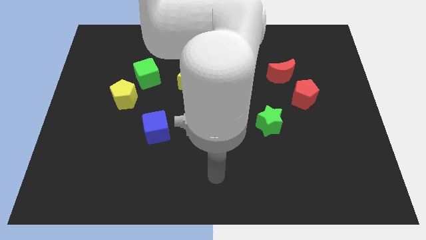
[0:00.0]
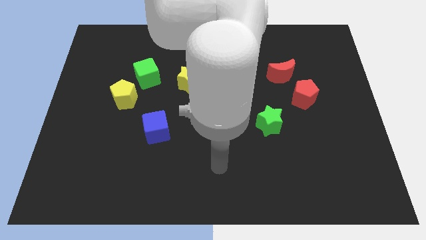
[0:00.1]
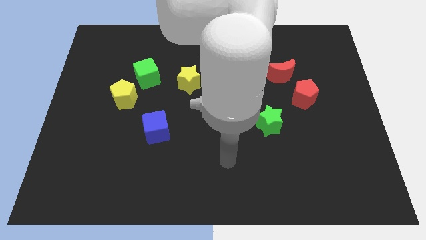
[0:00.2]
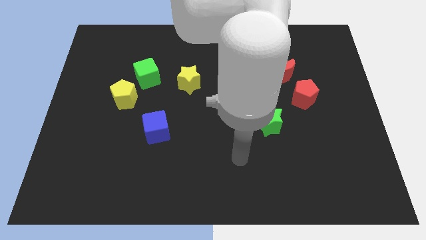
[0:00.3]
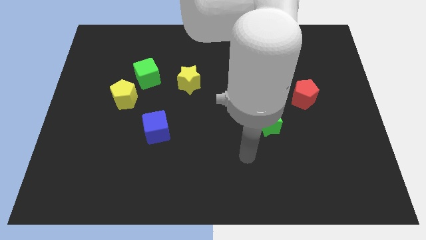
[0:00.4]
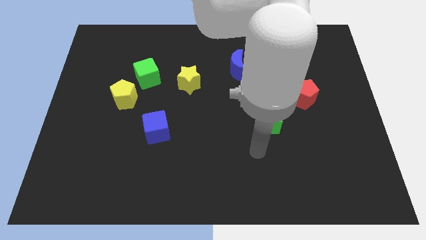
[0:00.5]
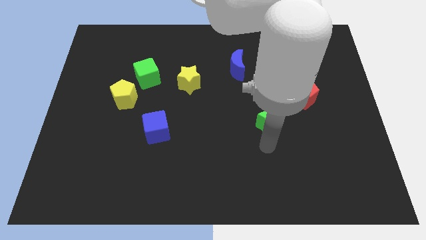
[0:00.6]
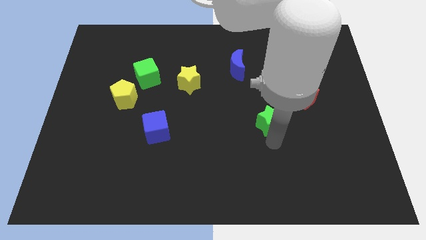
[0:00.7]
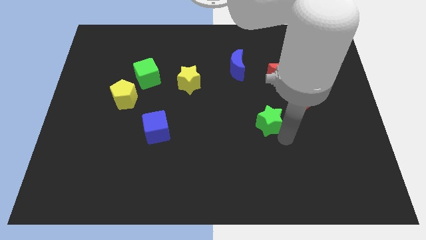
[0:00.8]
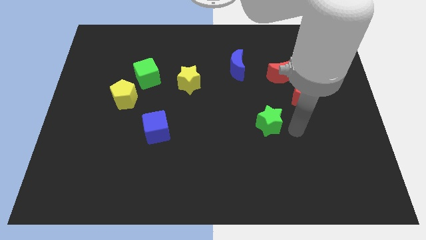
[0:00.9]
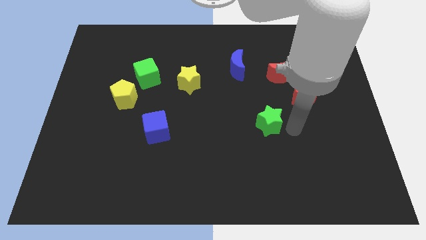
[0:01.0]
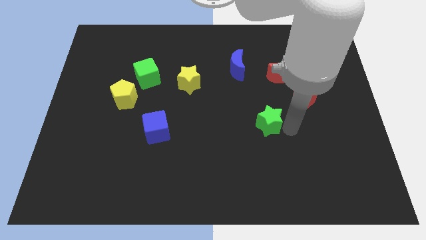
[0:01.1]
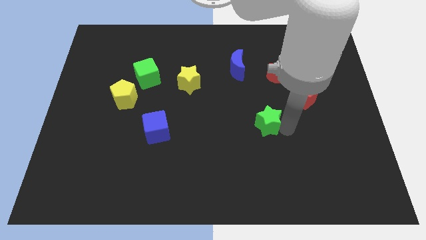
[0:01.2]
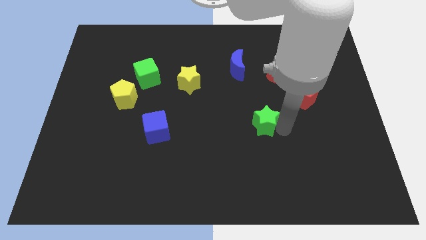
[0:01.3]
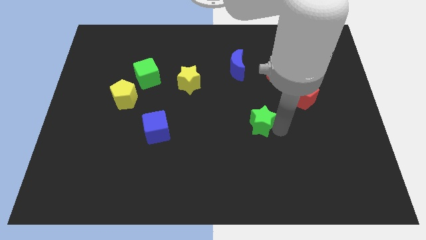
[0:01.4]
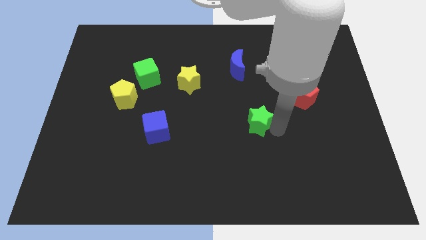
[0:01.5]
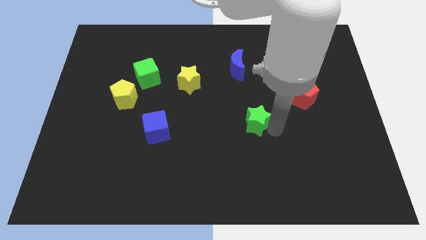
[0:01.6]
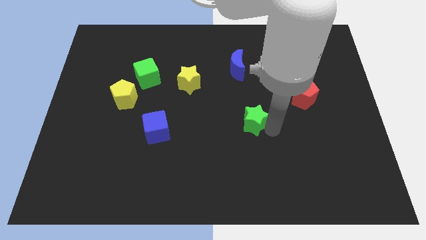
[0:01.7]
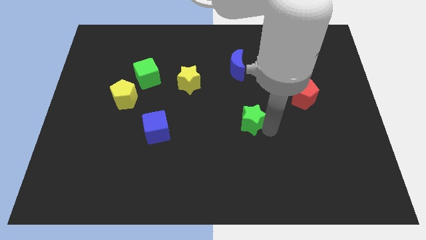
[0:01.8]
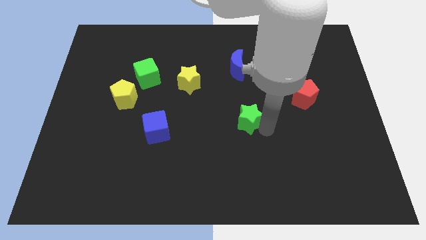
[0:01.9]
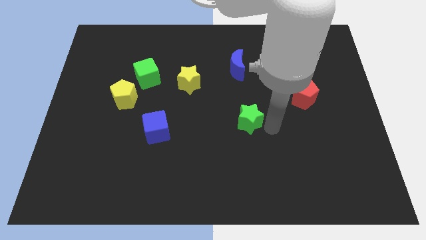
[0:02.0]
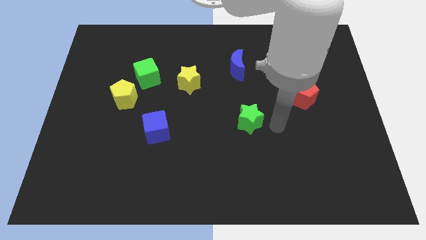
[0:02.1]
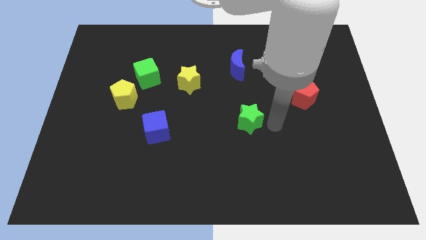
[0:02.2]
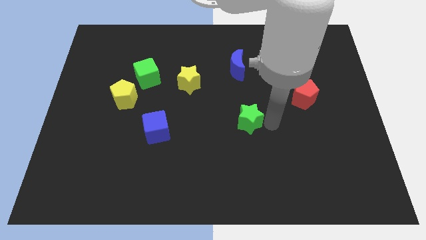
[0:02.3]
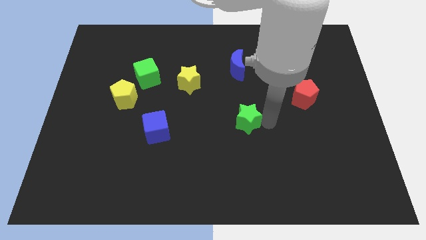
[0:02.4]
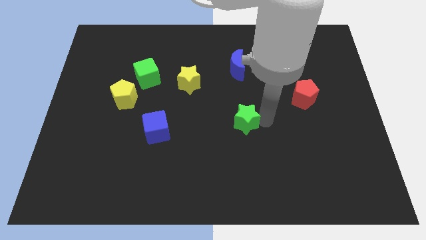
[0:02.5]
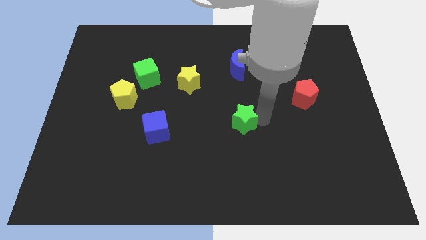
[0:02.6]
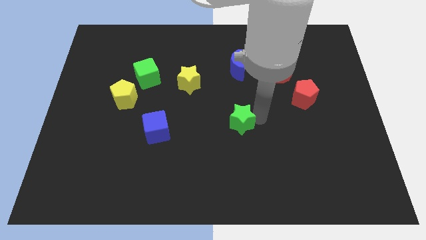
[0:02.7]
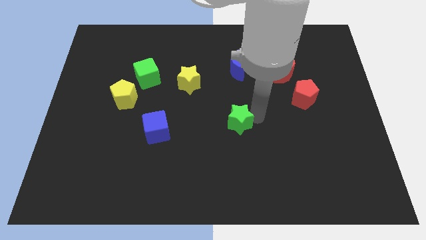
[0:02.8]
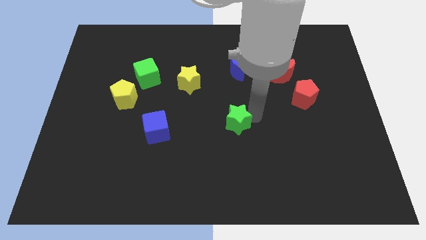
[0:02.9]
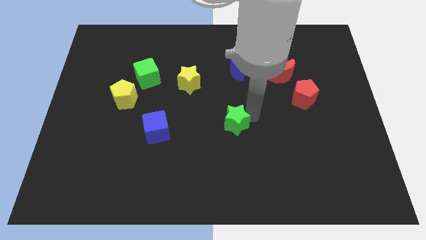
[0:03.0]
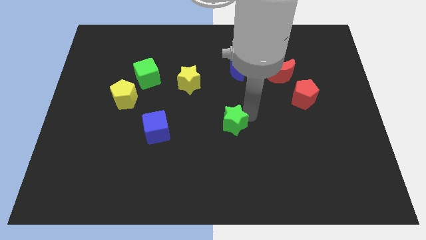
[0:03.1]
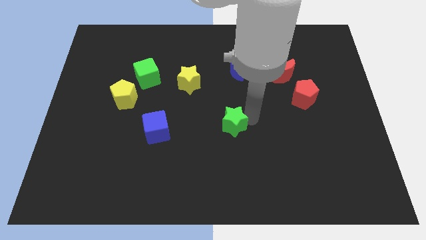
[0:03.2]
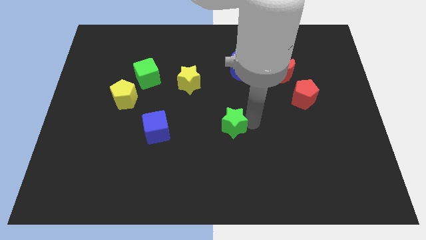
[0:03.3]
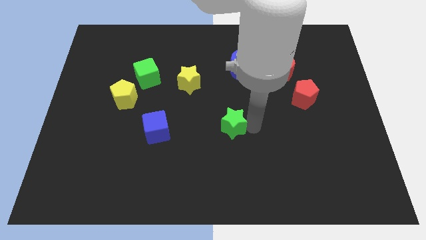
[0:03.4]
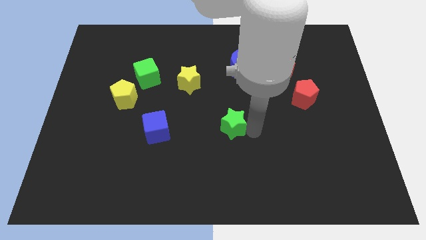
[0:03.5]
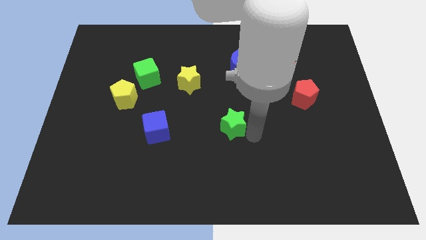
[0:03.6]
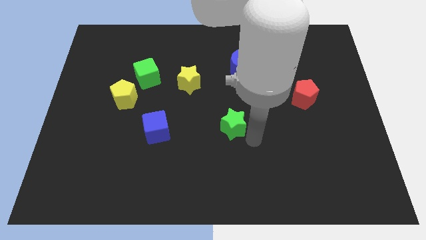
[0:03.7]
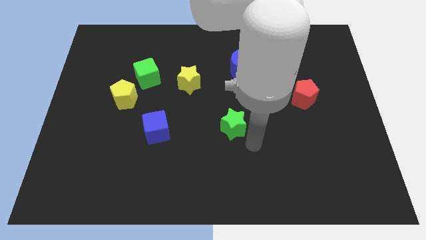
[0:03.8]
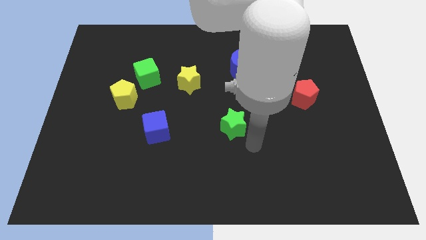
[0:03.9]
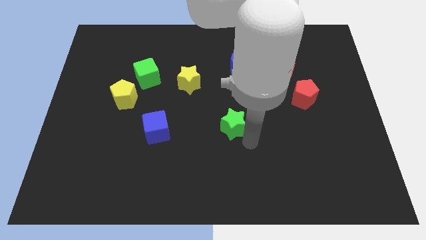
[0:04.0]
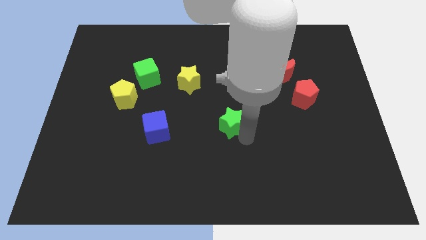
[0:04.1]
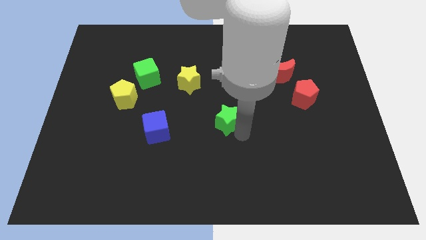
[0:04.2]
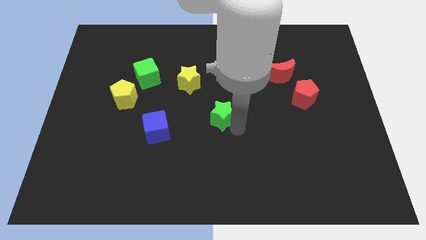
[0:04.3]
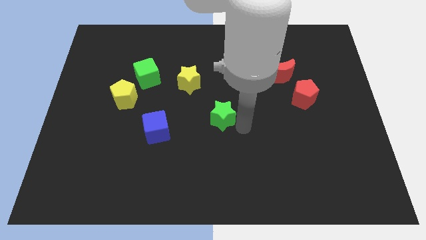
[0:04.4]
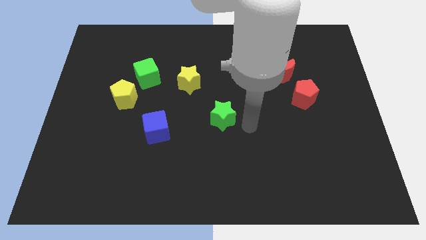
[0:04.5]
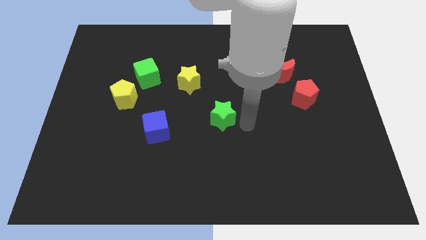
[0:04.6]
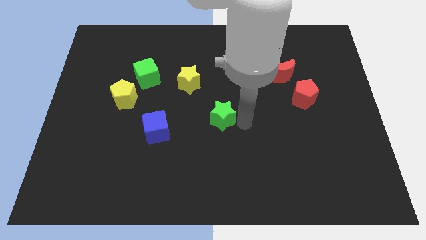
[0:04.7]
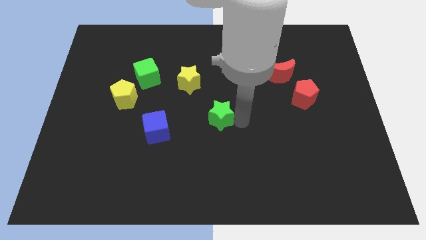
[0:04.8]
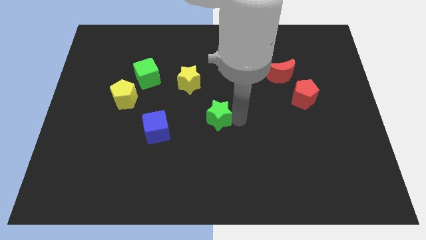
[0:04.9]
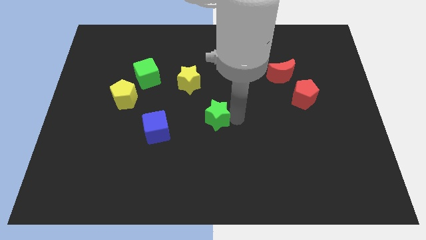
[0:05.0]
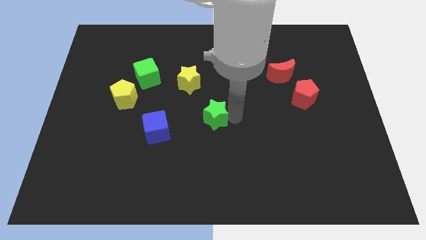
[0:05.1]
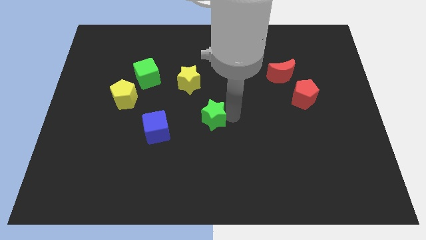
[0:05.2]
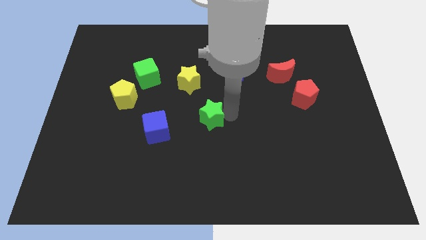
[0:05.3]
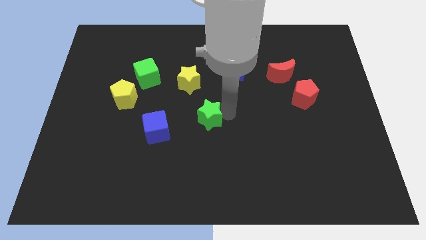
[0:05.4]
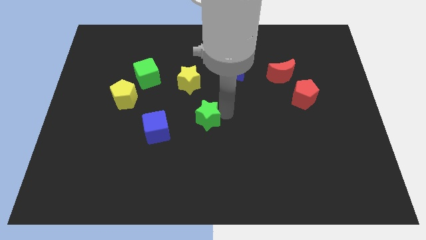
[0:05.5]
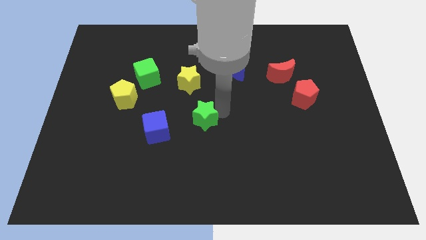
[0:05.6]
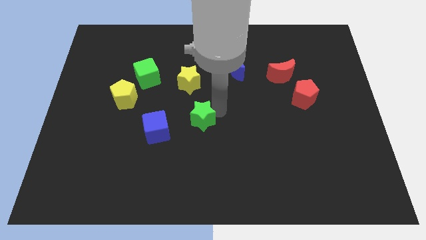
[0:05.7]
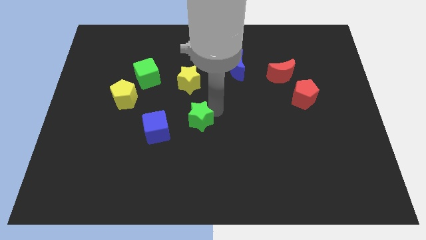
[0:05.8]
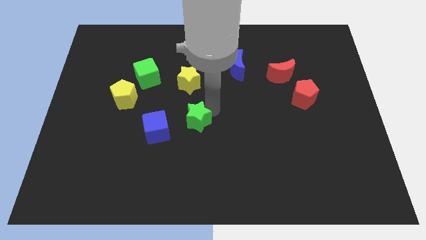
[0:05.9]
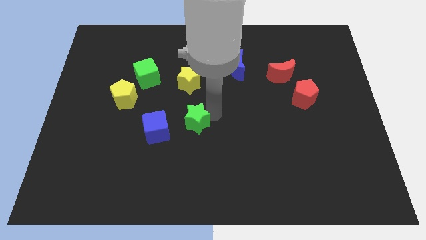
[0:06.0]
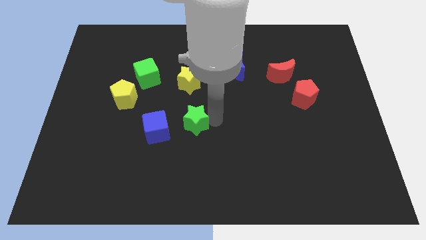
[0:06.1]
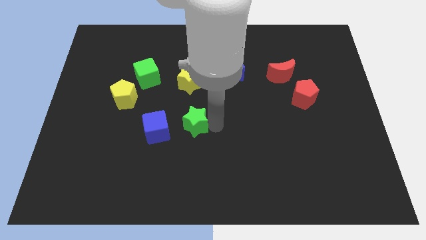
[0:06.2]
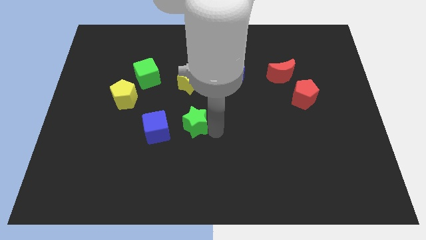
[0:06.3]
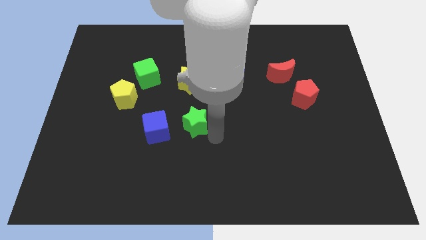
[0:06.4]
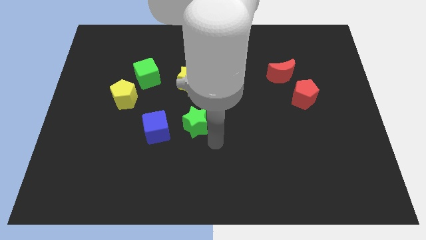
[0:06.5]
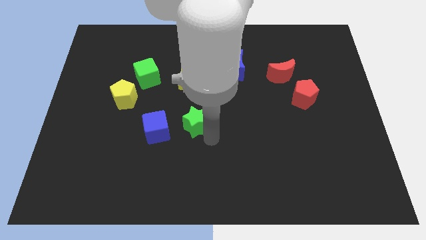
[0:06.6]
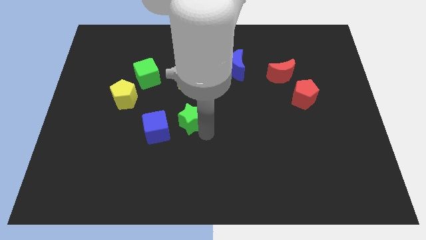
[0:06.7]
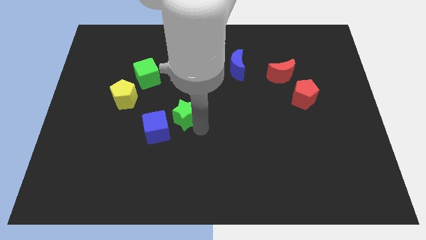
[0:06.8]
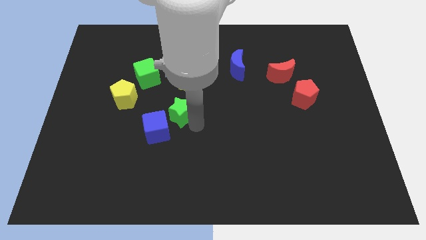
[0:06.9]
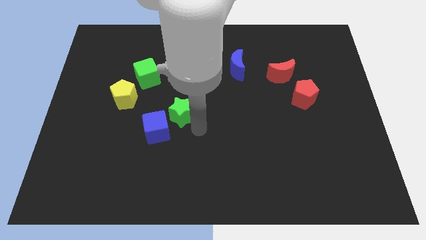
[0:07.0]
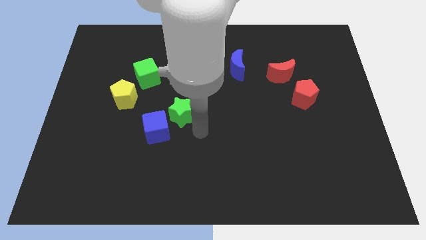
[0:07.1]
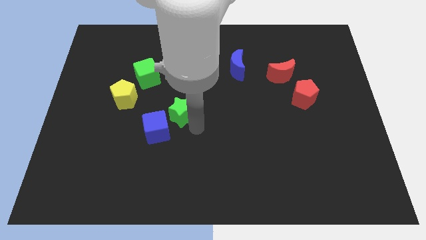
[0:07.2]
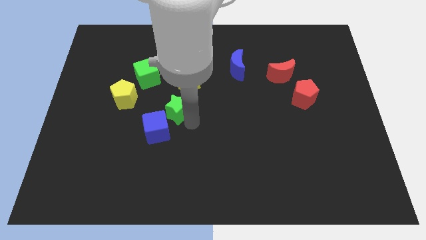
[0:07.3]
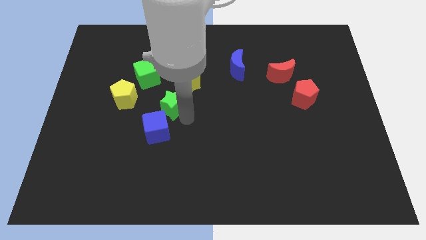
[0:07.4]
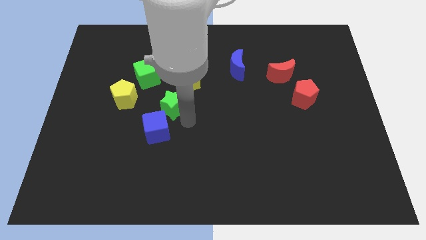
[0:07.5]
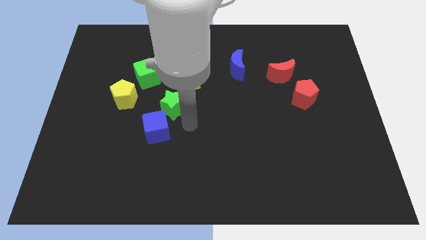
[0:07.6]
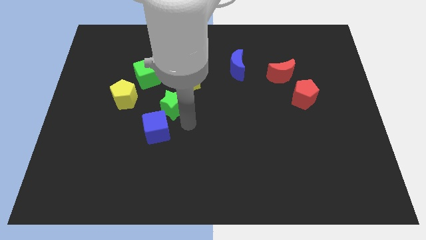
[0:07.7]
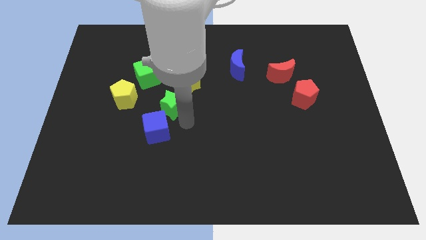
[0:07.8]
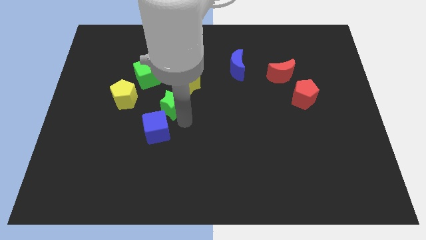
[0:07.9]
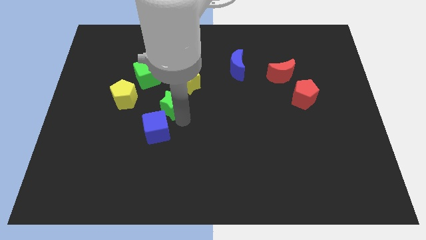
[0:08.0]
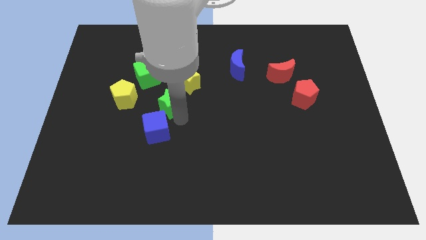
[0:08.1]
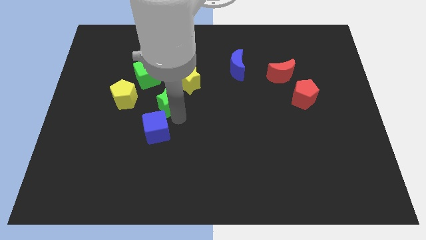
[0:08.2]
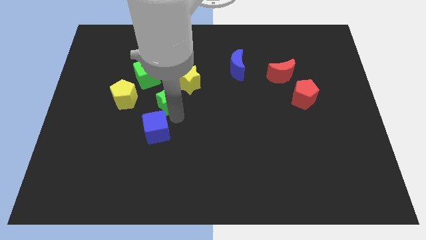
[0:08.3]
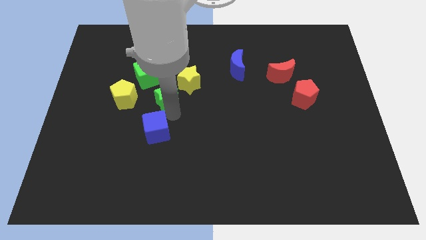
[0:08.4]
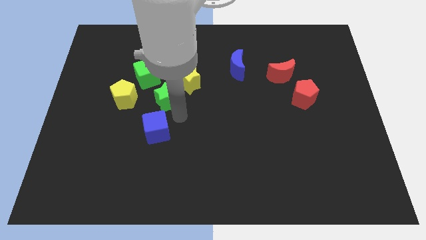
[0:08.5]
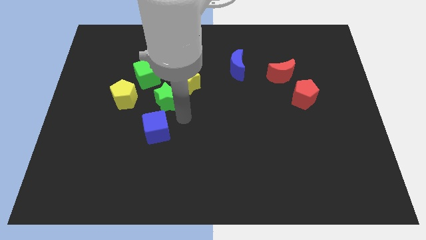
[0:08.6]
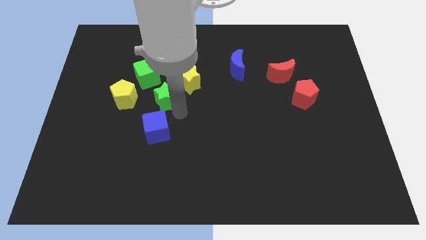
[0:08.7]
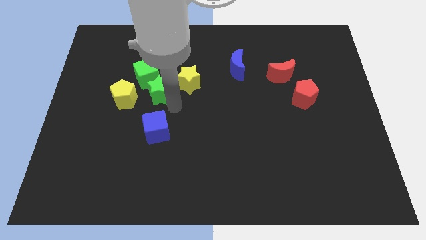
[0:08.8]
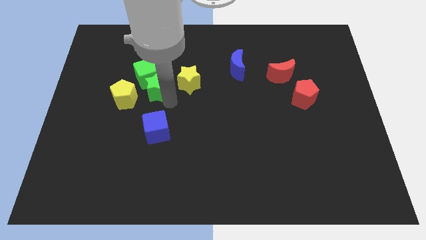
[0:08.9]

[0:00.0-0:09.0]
slide the green star towards the green cube
